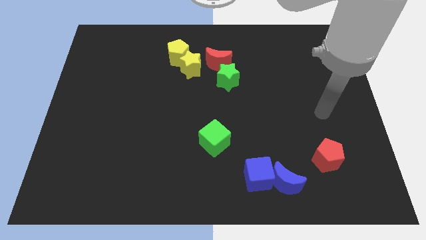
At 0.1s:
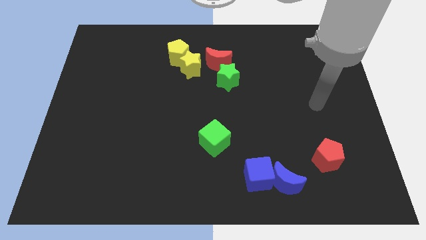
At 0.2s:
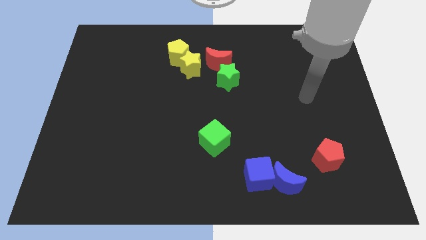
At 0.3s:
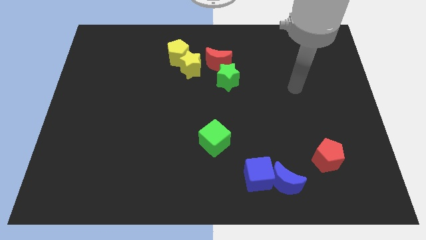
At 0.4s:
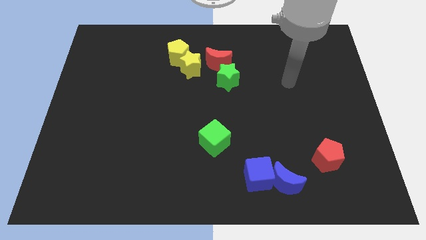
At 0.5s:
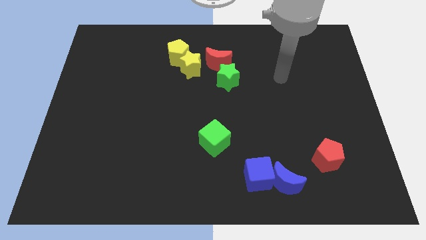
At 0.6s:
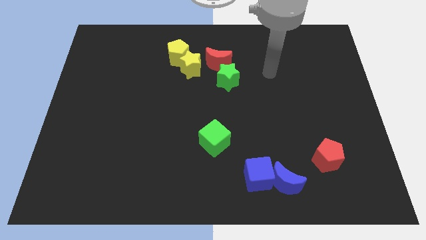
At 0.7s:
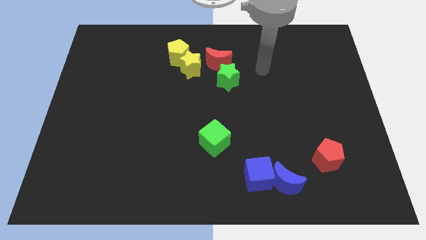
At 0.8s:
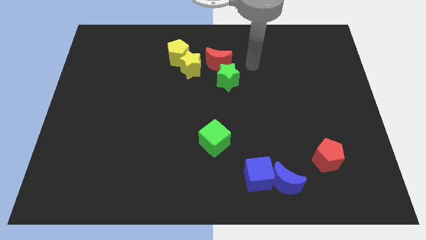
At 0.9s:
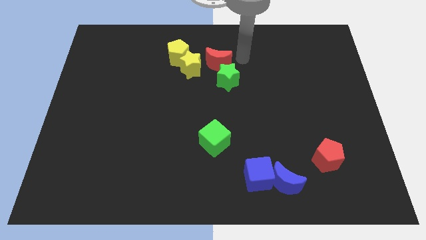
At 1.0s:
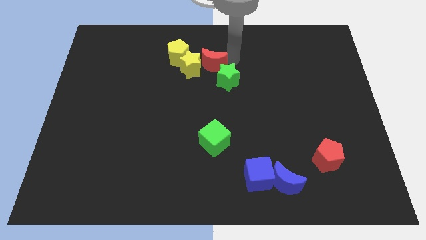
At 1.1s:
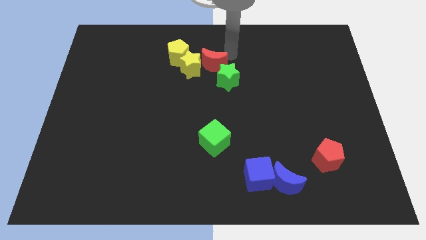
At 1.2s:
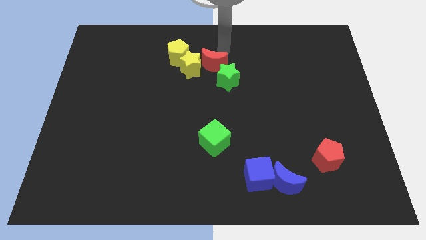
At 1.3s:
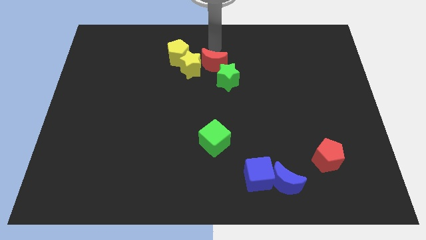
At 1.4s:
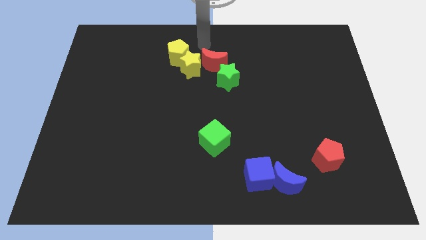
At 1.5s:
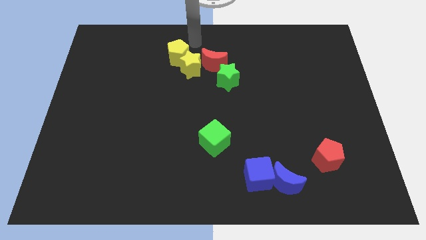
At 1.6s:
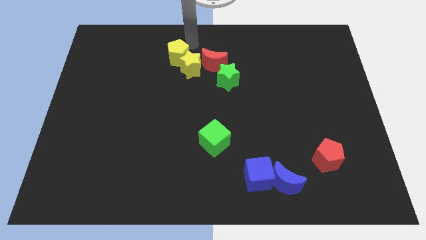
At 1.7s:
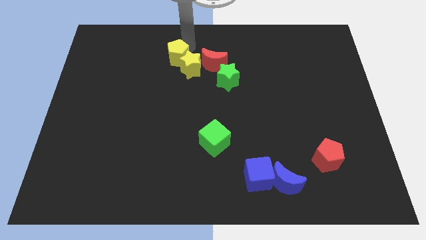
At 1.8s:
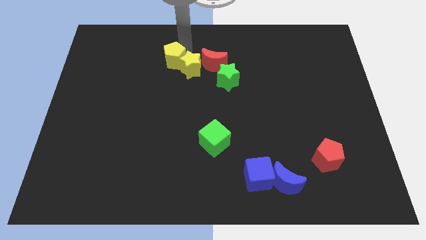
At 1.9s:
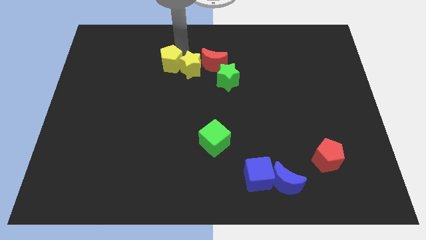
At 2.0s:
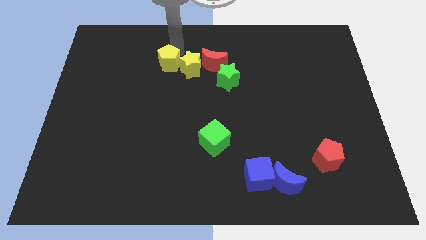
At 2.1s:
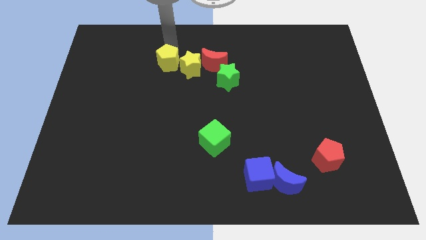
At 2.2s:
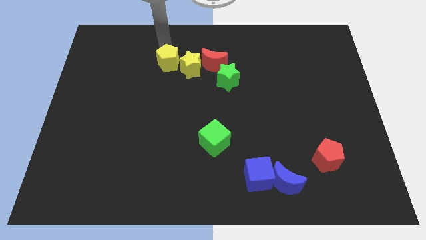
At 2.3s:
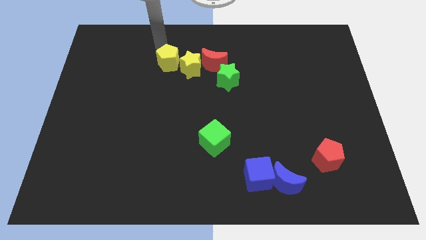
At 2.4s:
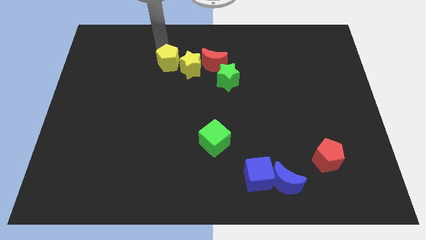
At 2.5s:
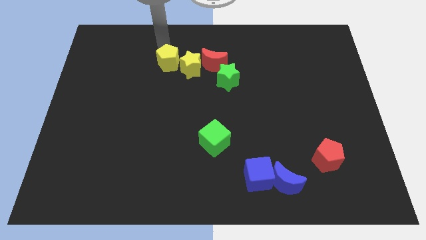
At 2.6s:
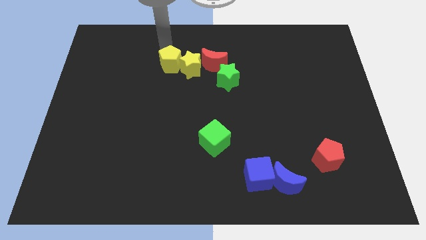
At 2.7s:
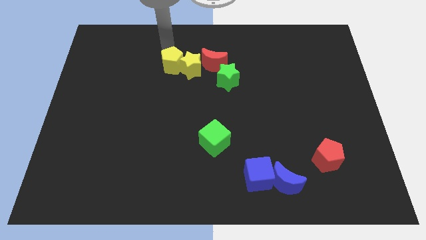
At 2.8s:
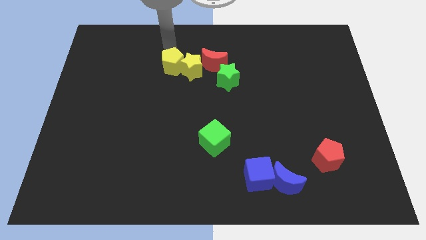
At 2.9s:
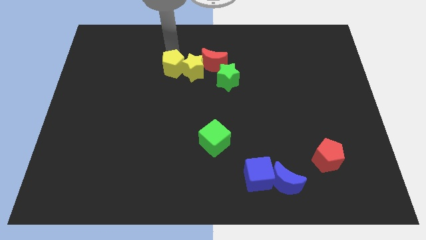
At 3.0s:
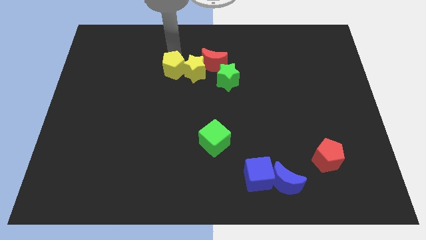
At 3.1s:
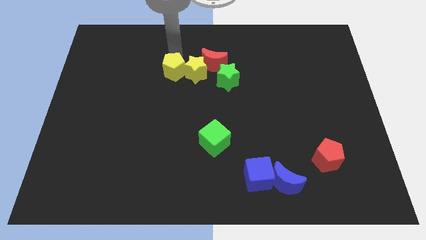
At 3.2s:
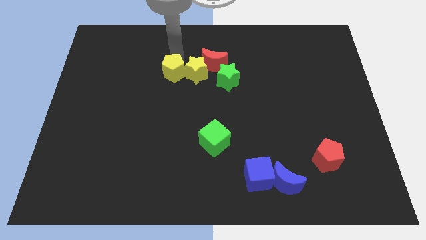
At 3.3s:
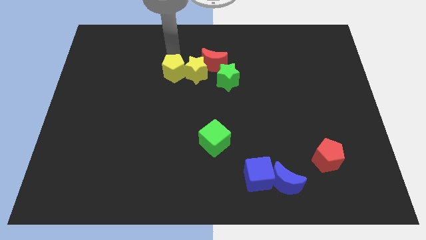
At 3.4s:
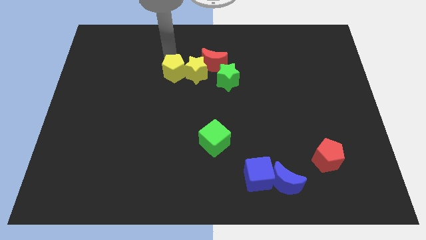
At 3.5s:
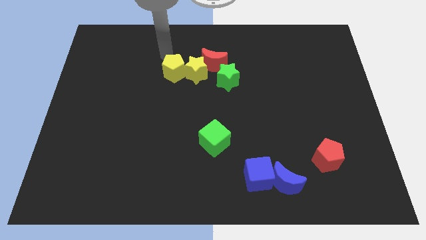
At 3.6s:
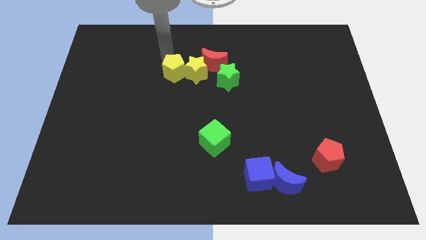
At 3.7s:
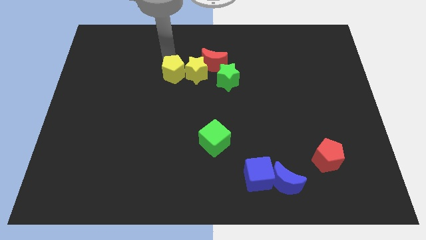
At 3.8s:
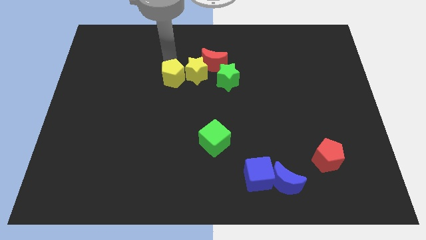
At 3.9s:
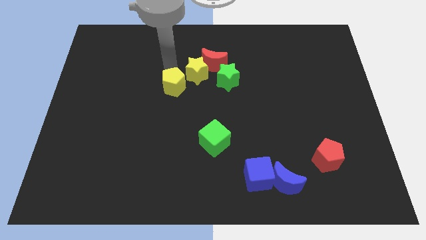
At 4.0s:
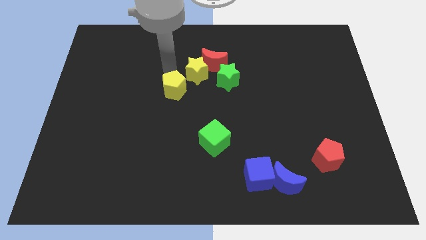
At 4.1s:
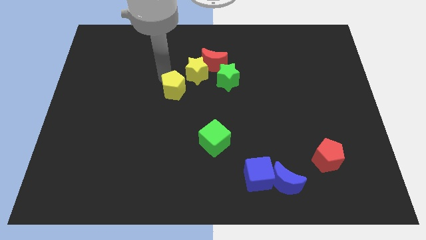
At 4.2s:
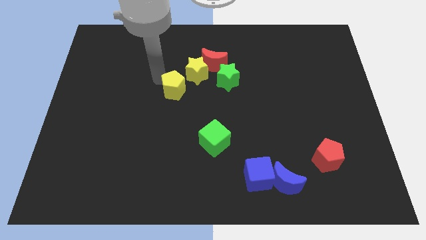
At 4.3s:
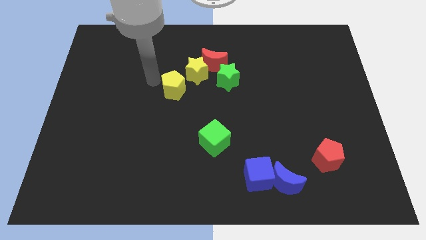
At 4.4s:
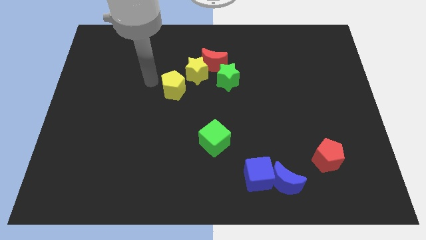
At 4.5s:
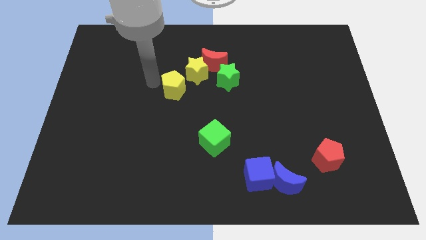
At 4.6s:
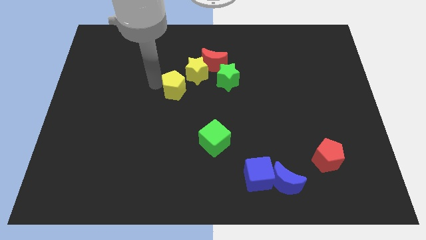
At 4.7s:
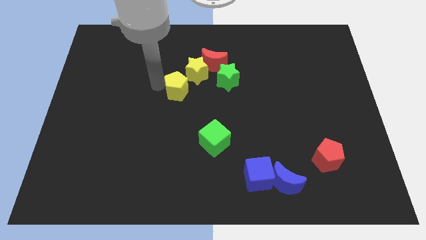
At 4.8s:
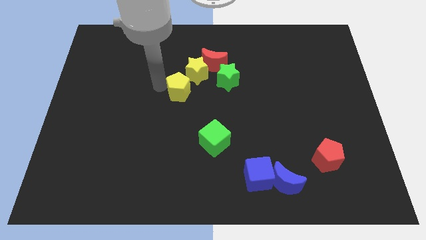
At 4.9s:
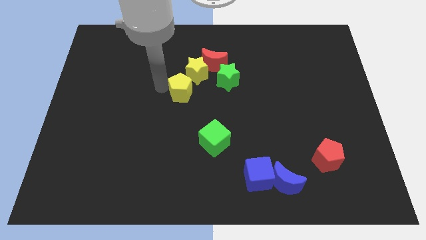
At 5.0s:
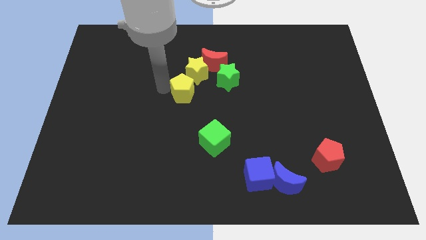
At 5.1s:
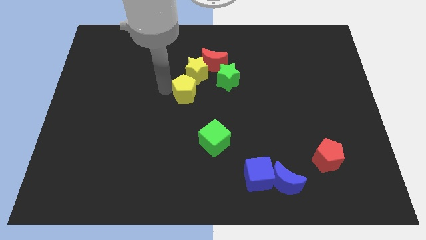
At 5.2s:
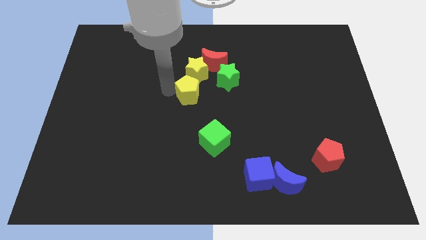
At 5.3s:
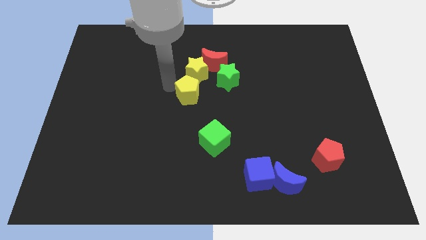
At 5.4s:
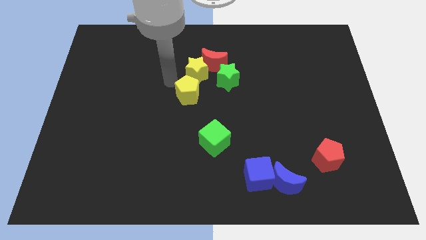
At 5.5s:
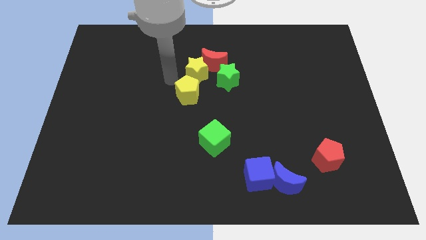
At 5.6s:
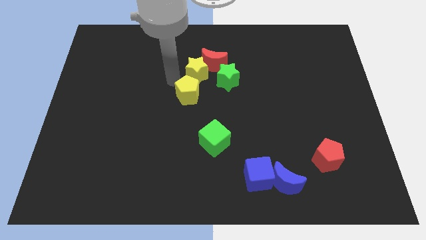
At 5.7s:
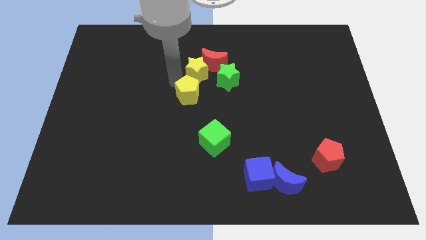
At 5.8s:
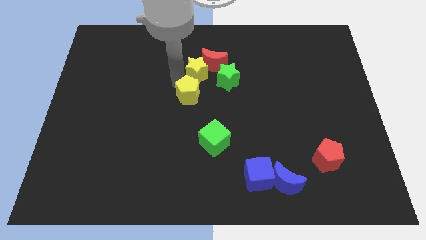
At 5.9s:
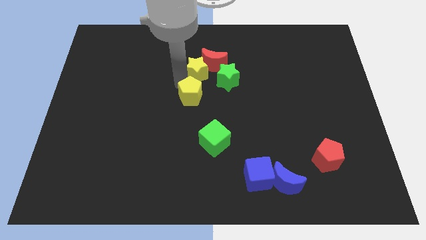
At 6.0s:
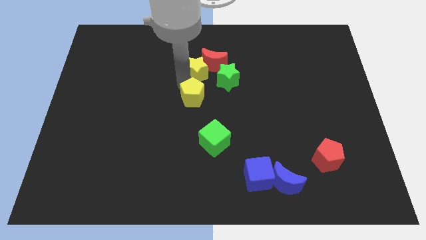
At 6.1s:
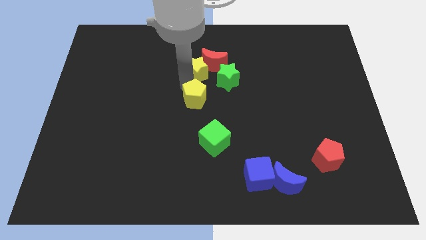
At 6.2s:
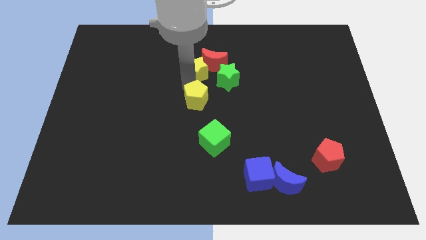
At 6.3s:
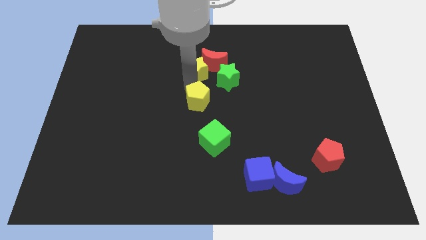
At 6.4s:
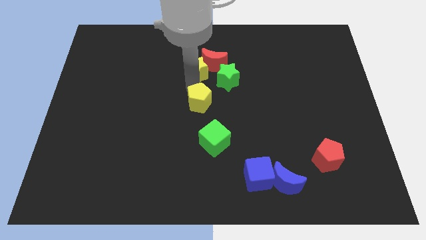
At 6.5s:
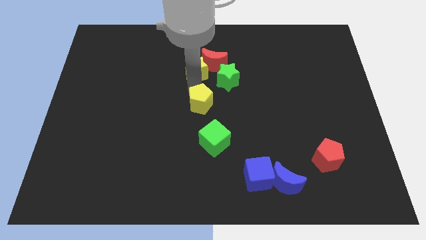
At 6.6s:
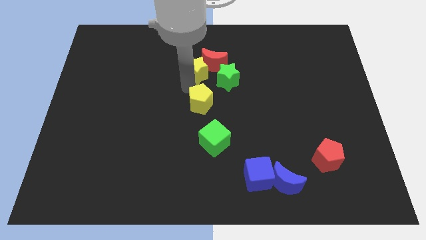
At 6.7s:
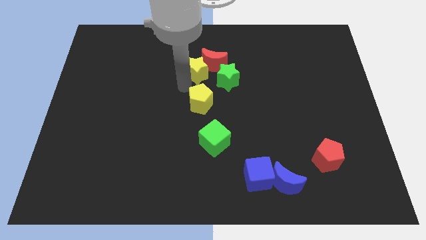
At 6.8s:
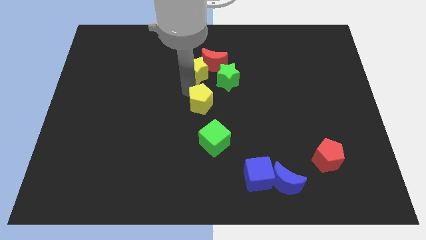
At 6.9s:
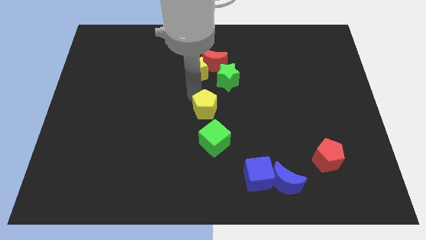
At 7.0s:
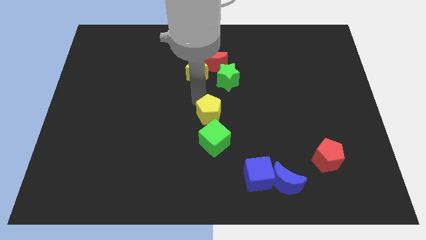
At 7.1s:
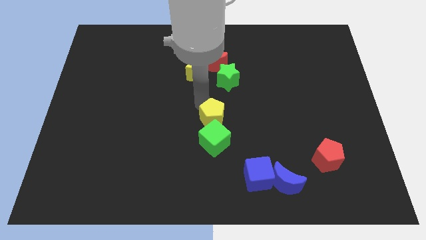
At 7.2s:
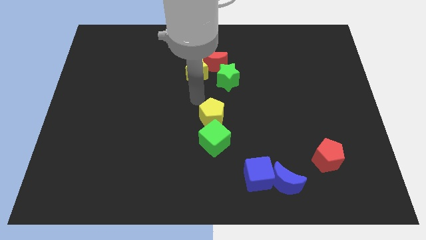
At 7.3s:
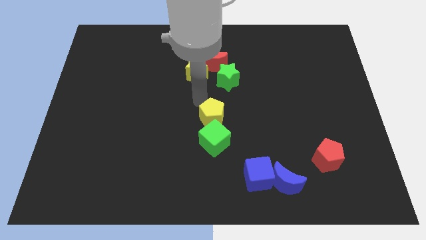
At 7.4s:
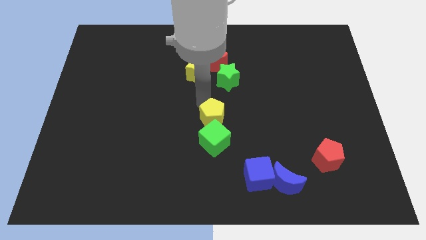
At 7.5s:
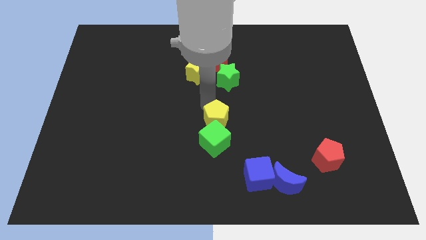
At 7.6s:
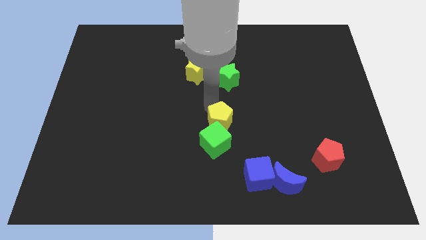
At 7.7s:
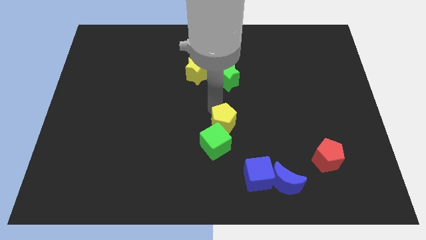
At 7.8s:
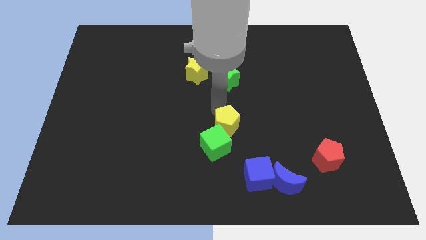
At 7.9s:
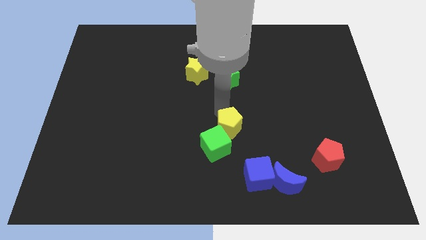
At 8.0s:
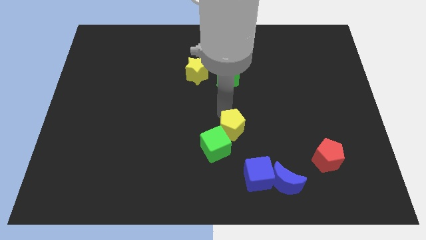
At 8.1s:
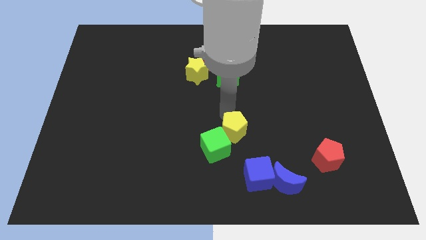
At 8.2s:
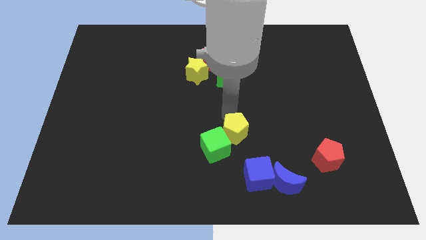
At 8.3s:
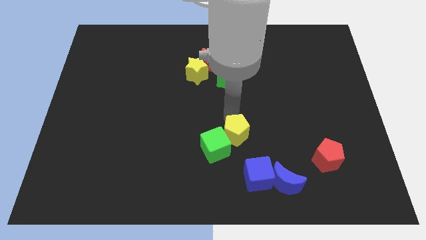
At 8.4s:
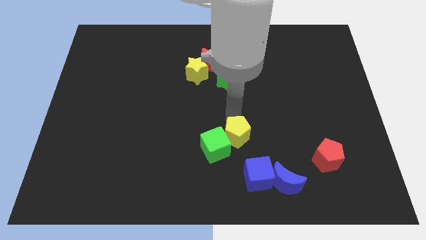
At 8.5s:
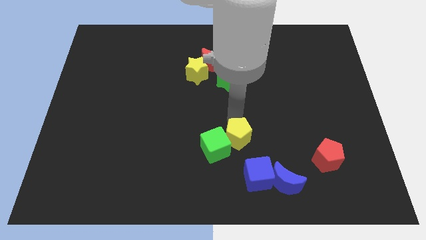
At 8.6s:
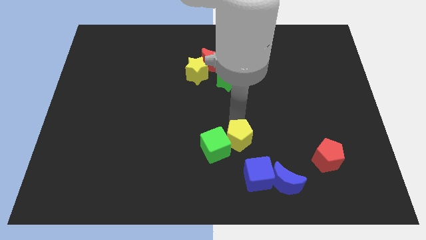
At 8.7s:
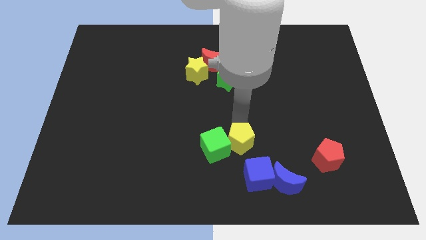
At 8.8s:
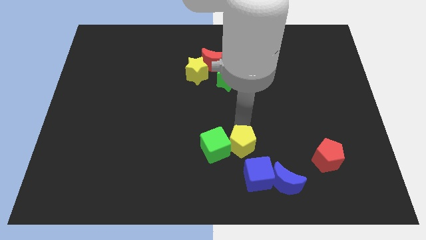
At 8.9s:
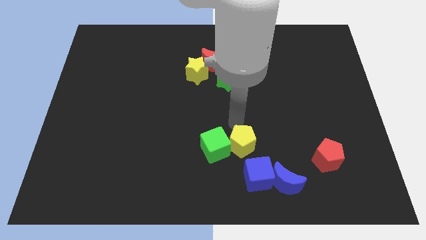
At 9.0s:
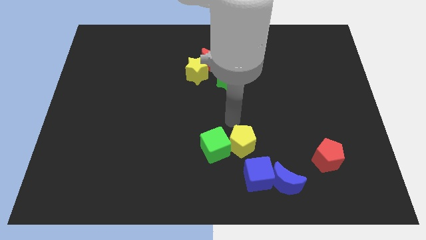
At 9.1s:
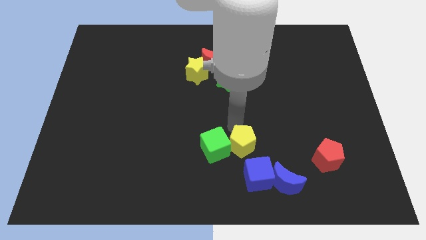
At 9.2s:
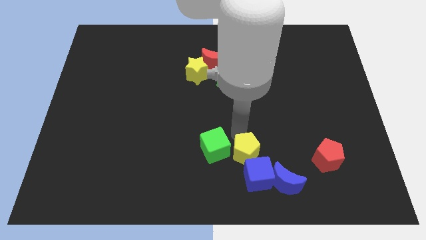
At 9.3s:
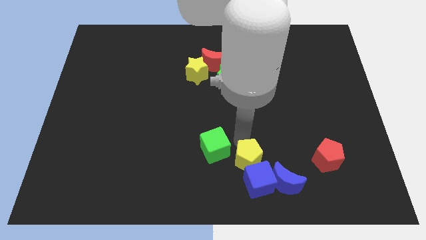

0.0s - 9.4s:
slide the yellow pentagon towards the blue cube
